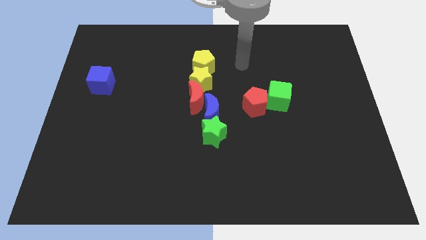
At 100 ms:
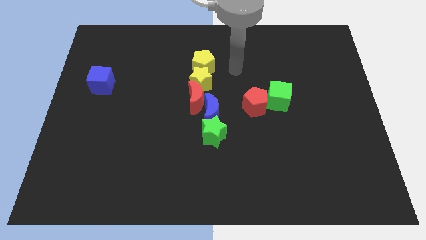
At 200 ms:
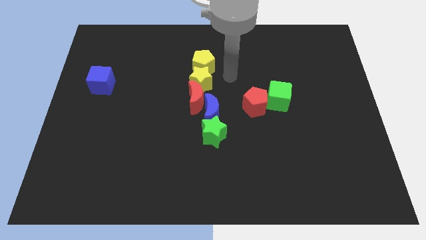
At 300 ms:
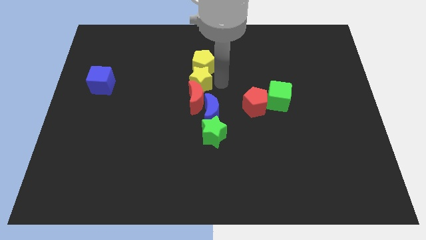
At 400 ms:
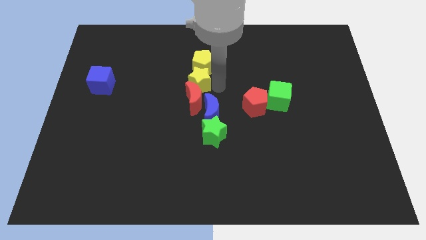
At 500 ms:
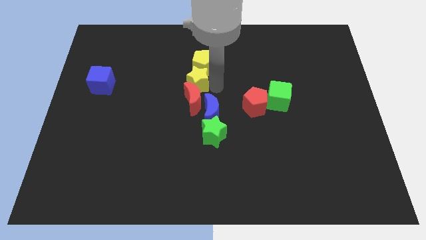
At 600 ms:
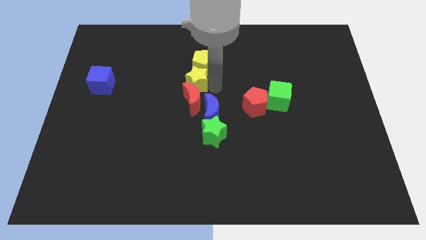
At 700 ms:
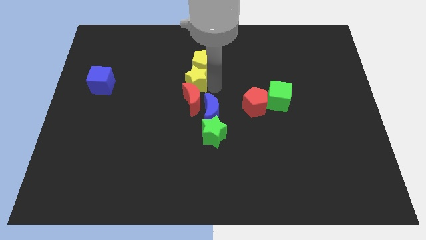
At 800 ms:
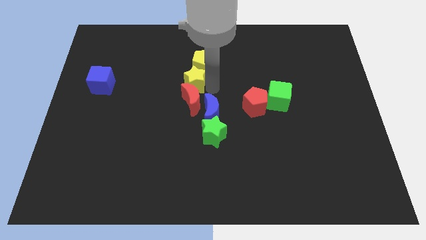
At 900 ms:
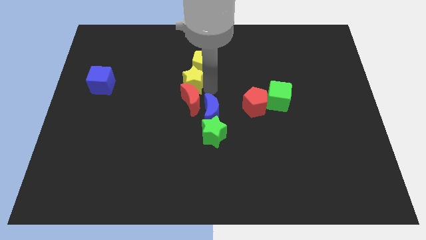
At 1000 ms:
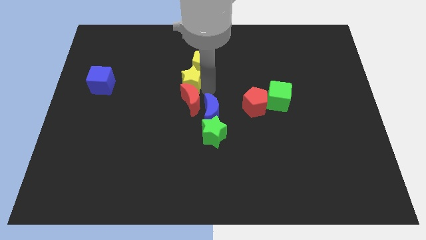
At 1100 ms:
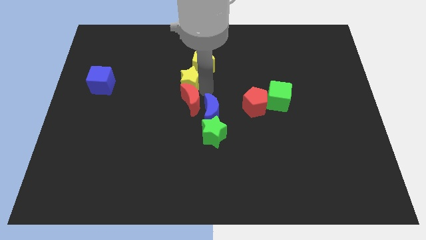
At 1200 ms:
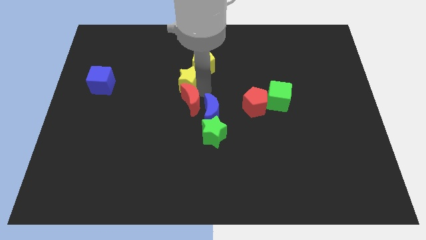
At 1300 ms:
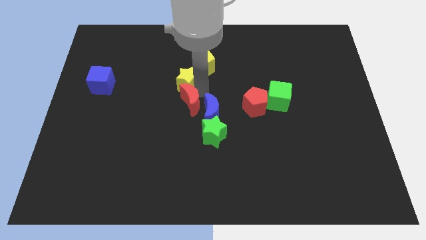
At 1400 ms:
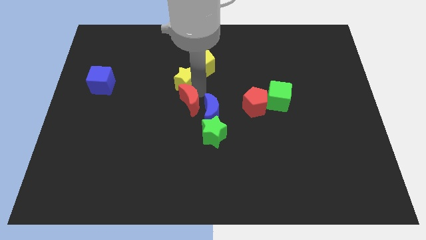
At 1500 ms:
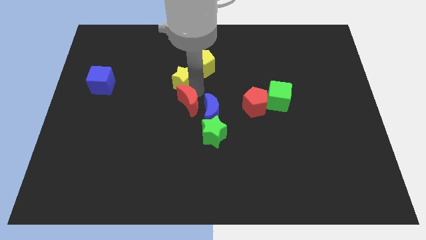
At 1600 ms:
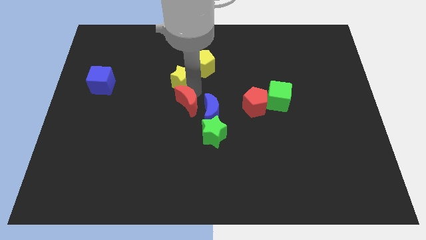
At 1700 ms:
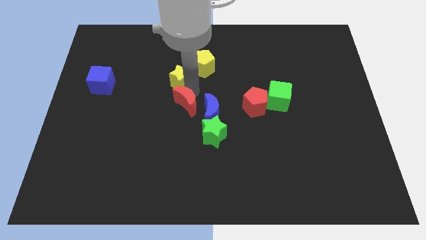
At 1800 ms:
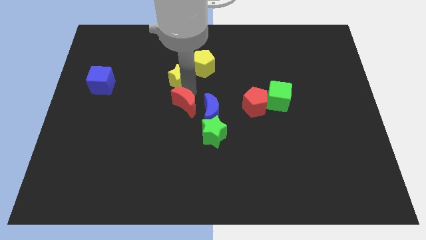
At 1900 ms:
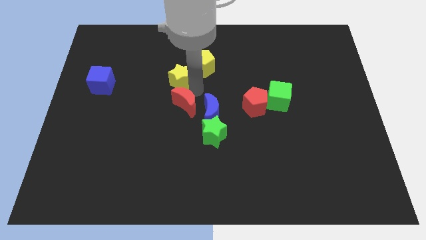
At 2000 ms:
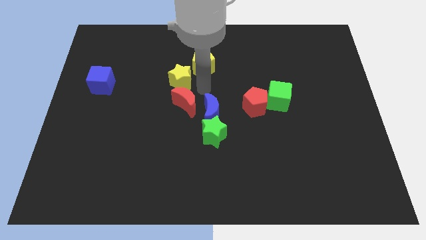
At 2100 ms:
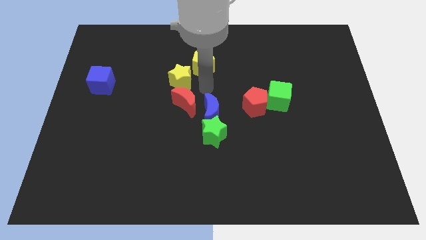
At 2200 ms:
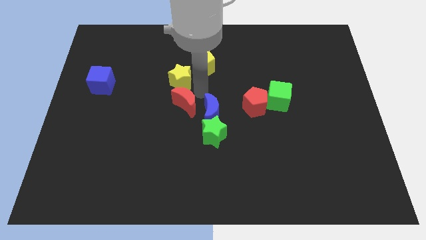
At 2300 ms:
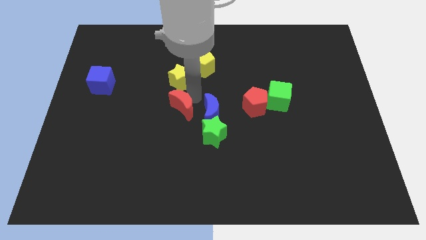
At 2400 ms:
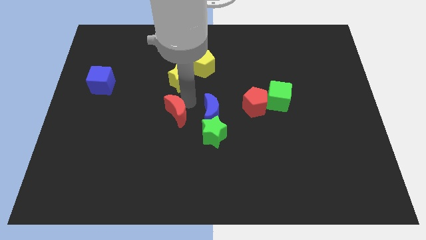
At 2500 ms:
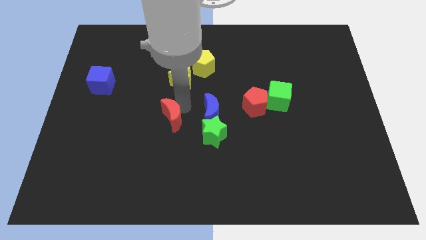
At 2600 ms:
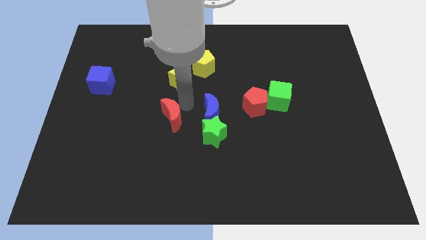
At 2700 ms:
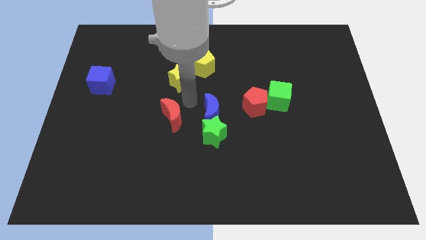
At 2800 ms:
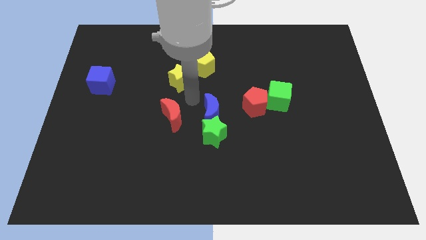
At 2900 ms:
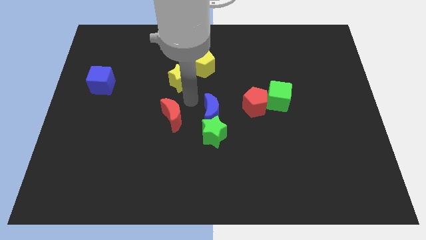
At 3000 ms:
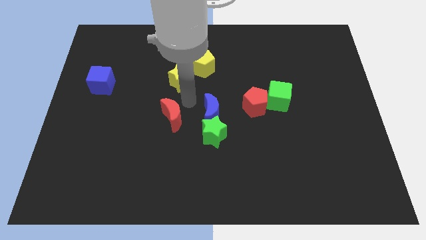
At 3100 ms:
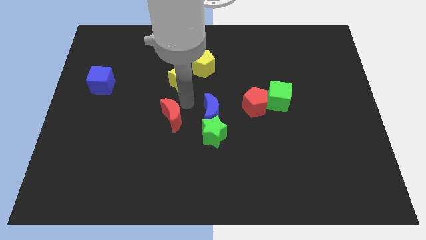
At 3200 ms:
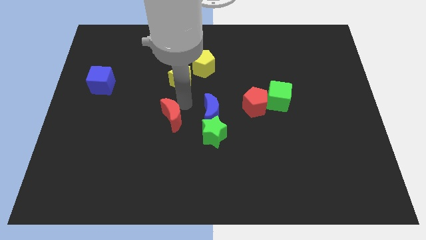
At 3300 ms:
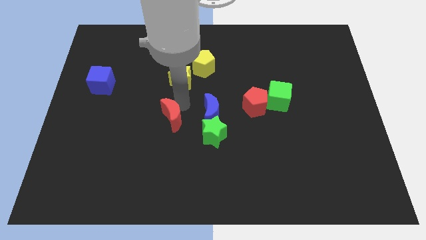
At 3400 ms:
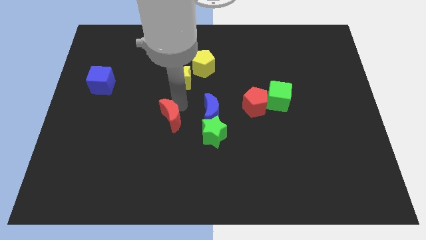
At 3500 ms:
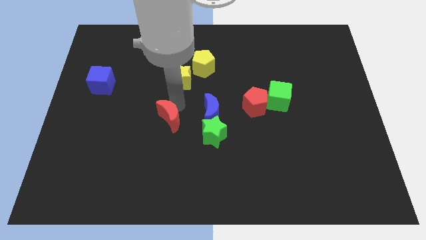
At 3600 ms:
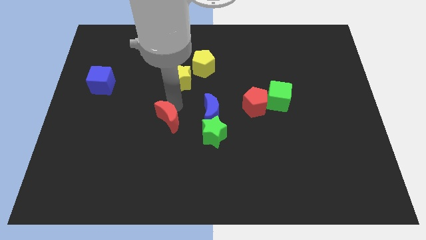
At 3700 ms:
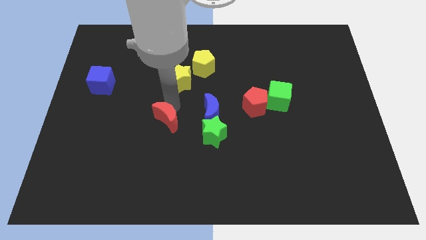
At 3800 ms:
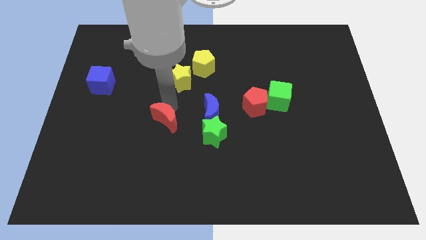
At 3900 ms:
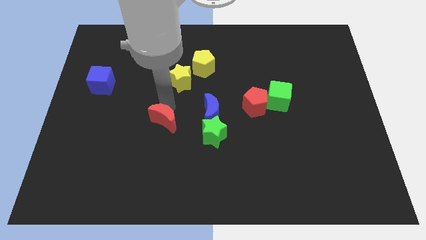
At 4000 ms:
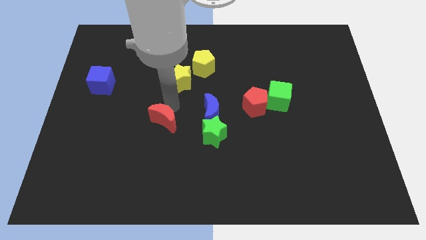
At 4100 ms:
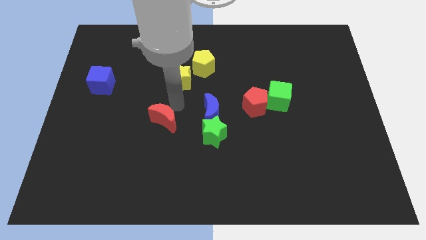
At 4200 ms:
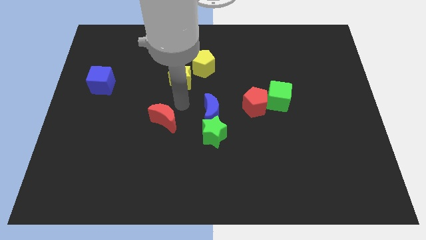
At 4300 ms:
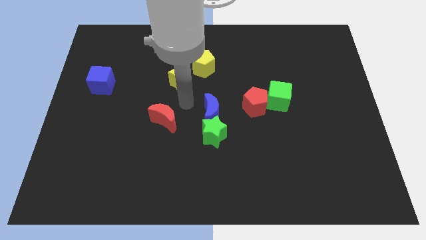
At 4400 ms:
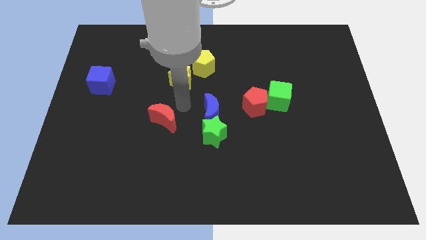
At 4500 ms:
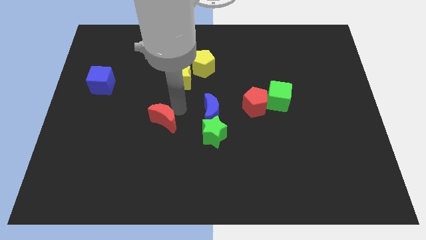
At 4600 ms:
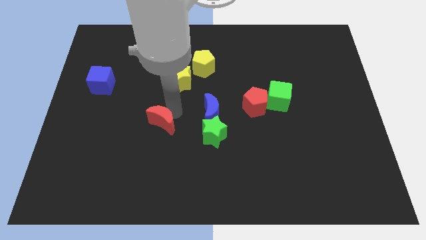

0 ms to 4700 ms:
move the red moon away from the blue moon and yellow star

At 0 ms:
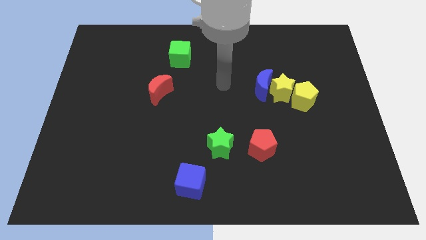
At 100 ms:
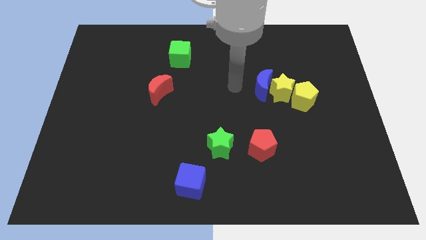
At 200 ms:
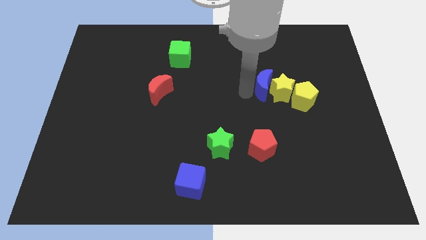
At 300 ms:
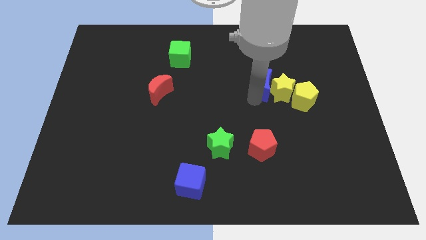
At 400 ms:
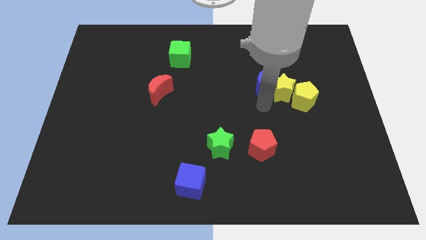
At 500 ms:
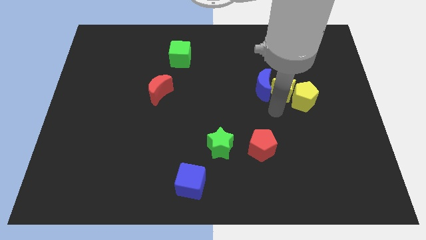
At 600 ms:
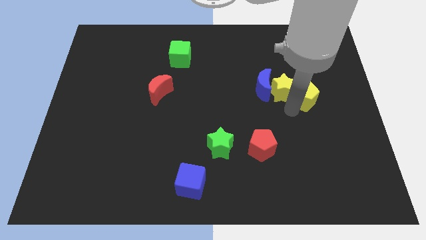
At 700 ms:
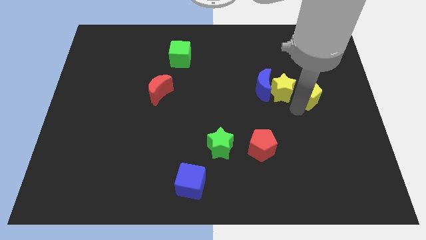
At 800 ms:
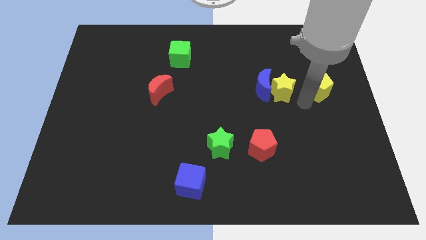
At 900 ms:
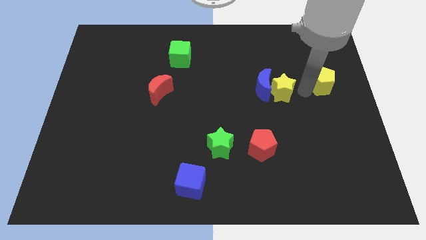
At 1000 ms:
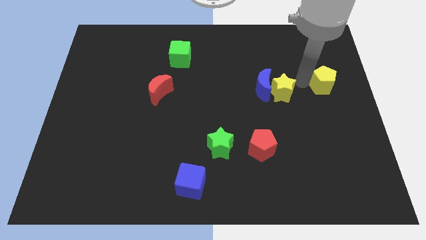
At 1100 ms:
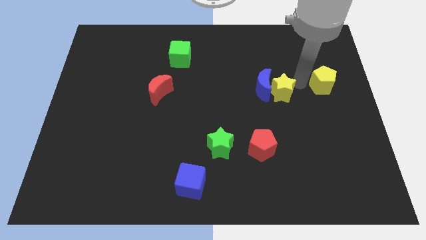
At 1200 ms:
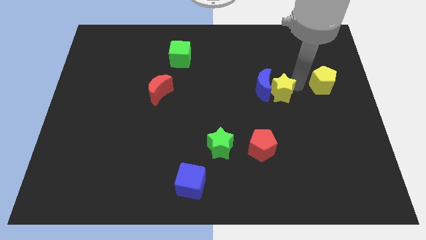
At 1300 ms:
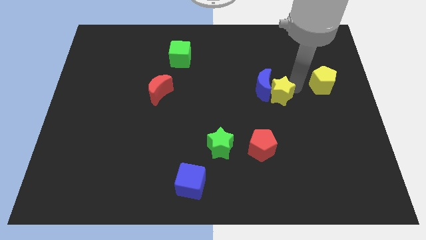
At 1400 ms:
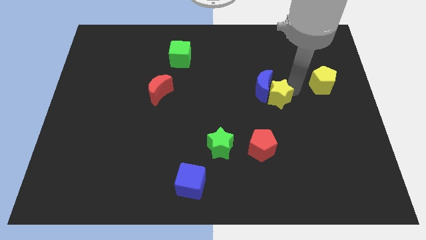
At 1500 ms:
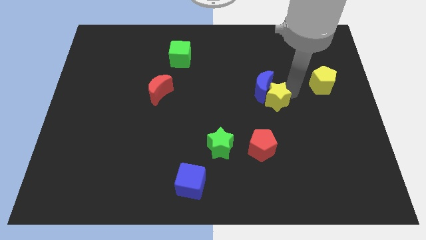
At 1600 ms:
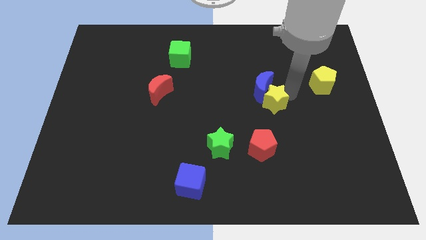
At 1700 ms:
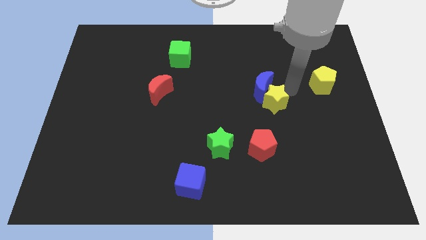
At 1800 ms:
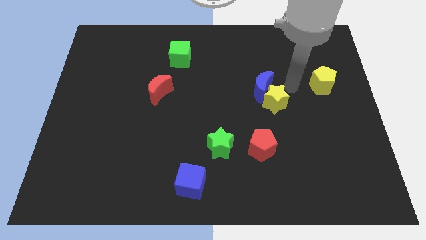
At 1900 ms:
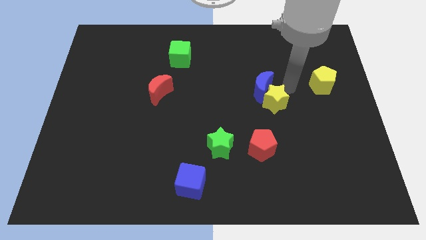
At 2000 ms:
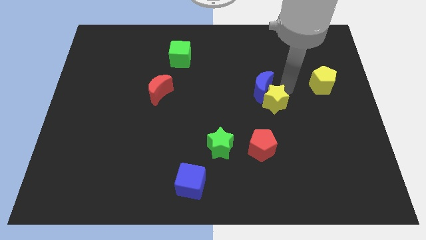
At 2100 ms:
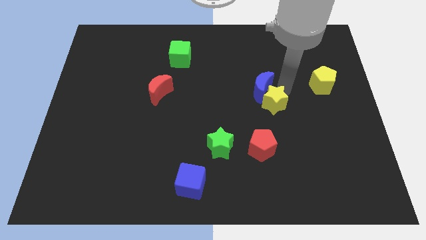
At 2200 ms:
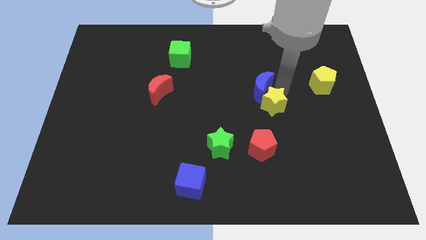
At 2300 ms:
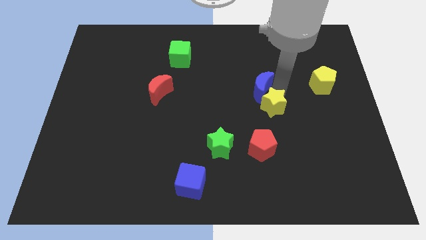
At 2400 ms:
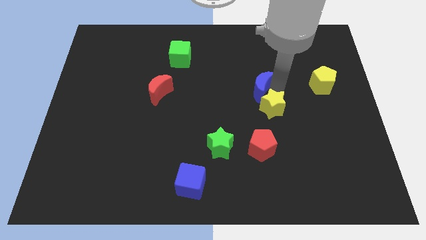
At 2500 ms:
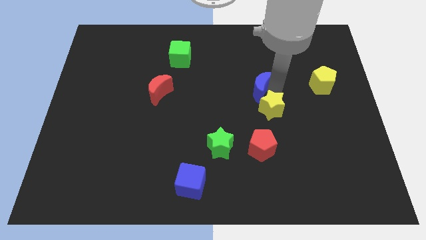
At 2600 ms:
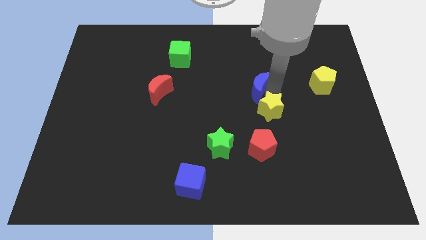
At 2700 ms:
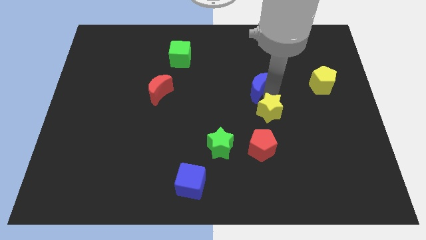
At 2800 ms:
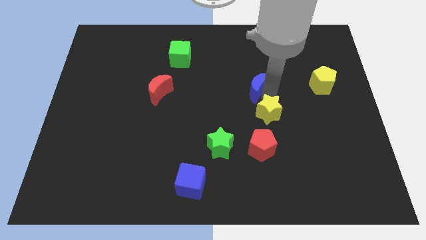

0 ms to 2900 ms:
pull the yellow star apart from the blue moon and yellow pentagon

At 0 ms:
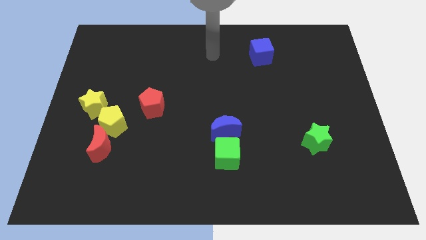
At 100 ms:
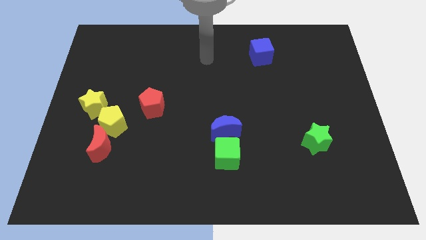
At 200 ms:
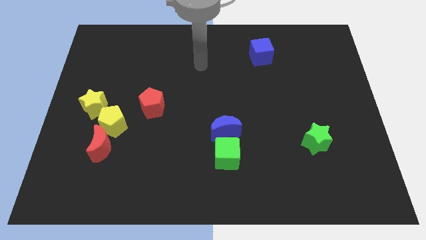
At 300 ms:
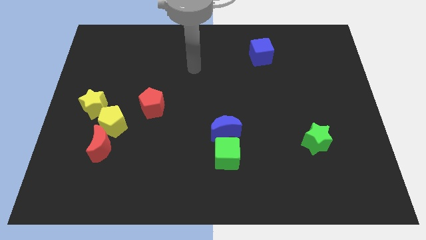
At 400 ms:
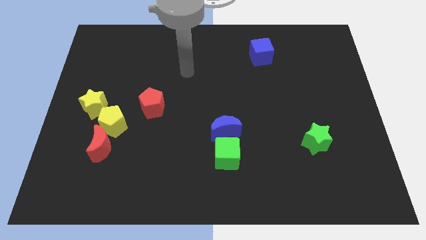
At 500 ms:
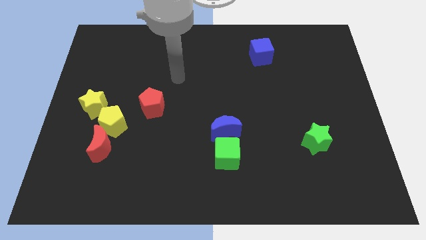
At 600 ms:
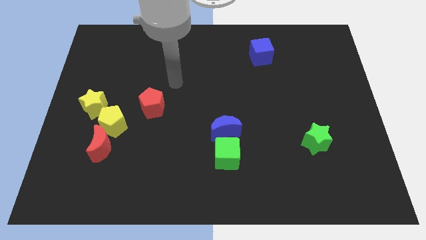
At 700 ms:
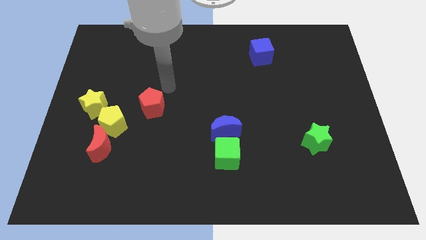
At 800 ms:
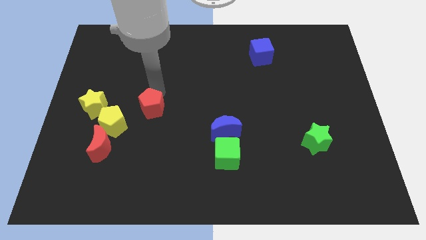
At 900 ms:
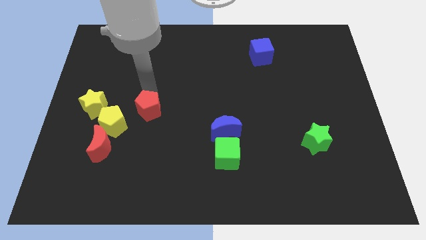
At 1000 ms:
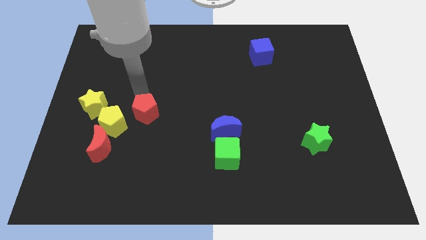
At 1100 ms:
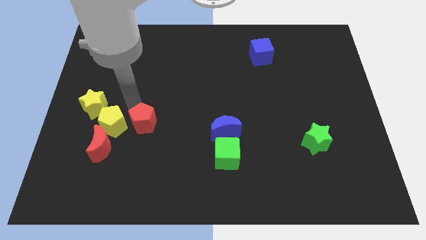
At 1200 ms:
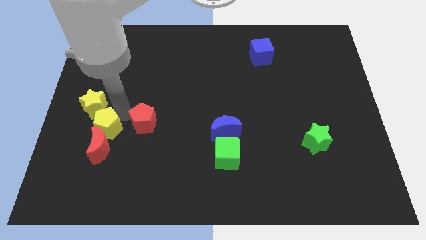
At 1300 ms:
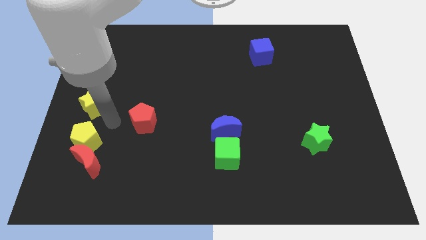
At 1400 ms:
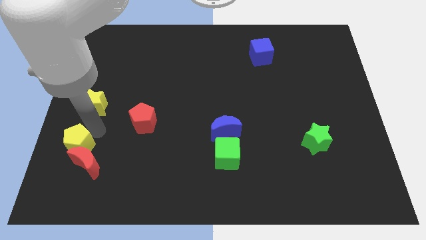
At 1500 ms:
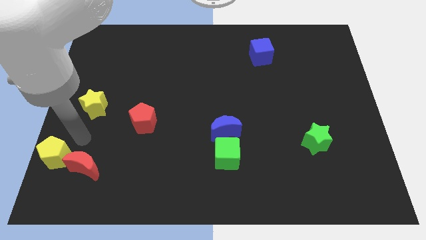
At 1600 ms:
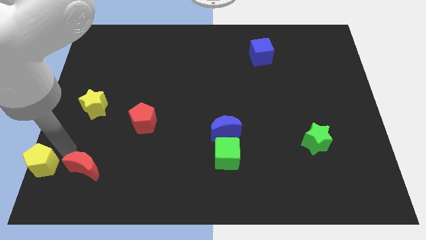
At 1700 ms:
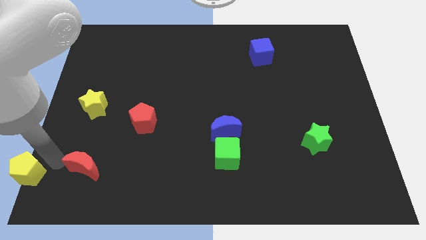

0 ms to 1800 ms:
move the red moon away from the yellow pentagon
